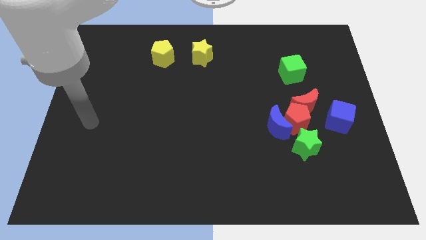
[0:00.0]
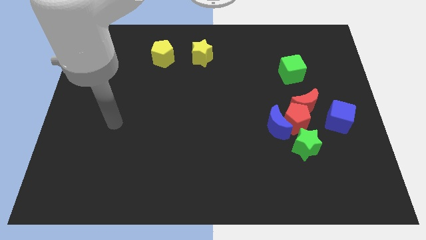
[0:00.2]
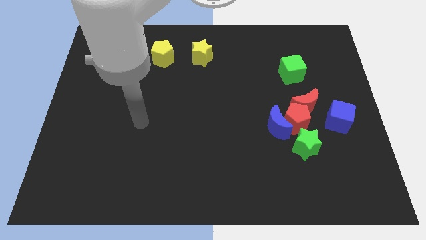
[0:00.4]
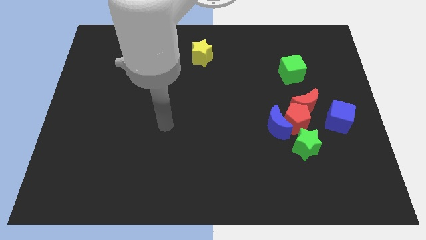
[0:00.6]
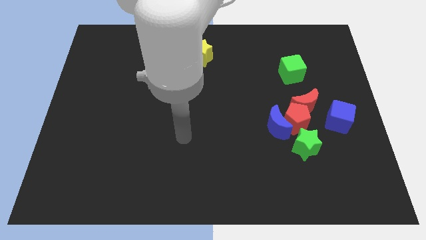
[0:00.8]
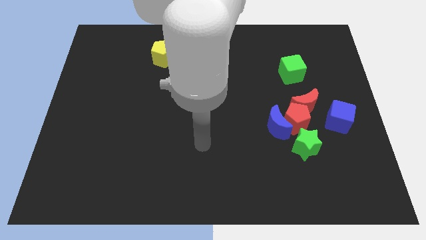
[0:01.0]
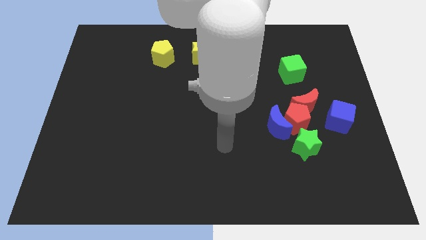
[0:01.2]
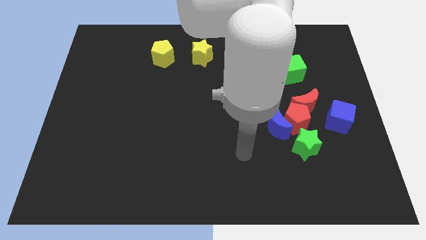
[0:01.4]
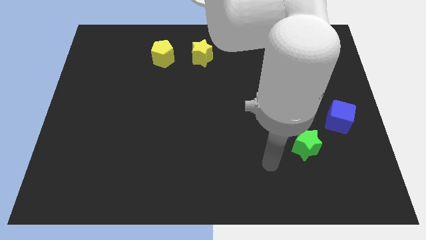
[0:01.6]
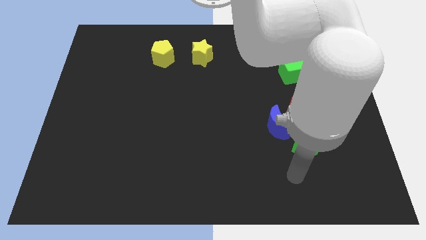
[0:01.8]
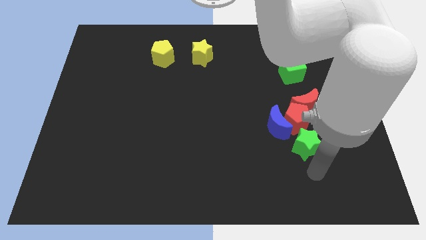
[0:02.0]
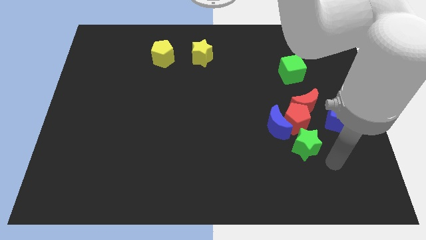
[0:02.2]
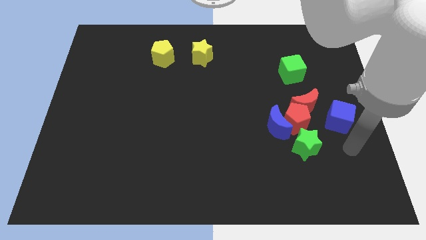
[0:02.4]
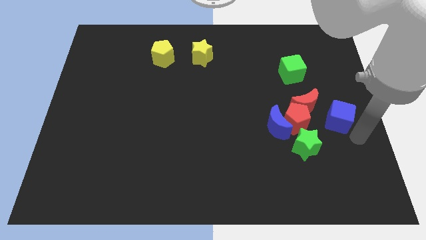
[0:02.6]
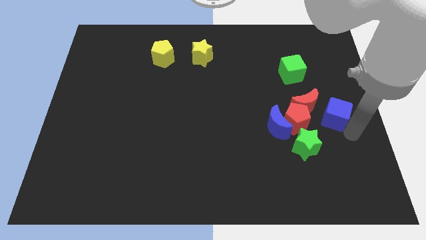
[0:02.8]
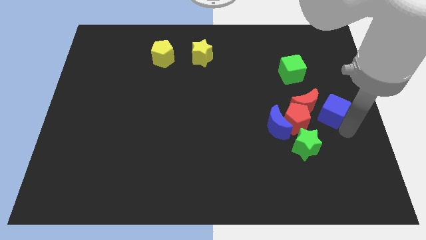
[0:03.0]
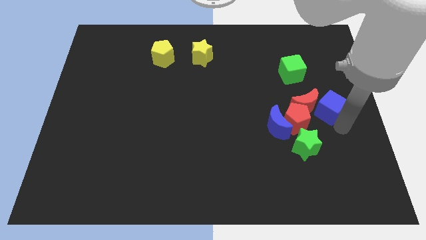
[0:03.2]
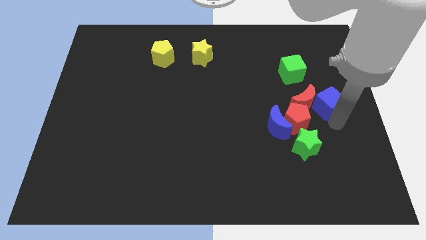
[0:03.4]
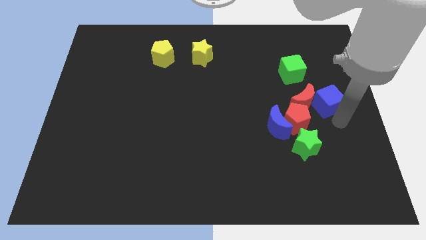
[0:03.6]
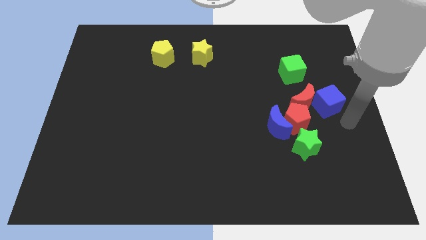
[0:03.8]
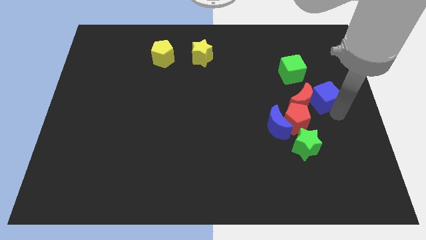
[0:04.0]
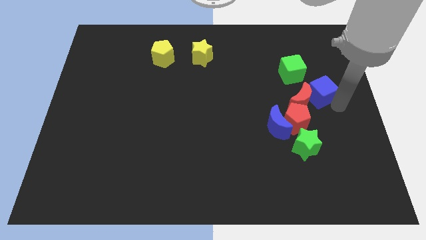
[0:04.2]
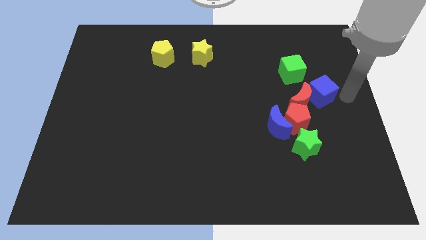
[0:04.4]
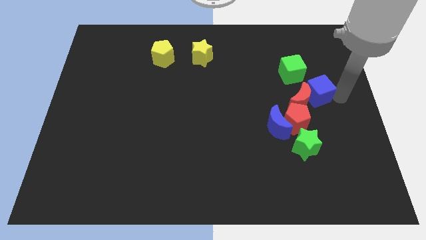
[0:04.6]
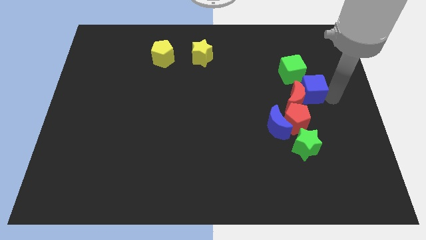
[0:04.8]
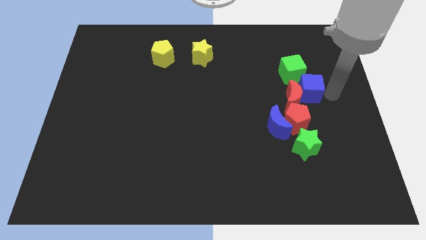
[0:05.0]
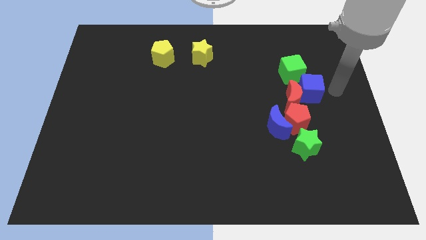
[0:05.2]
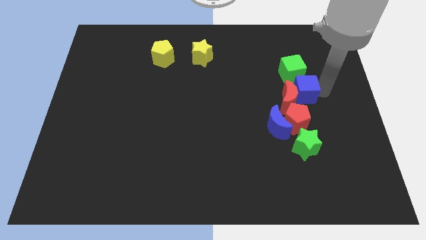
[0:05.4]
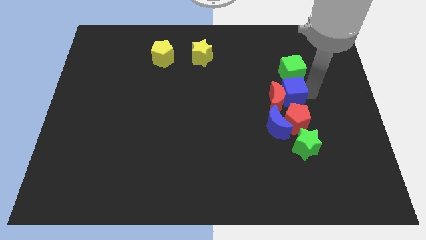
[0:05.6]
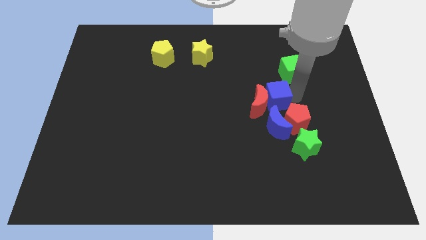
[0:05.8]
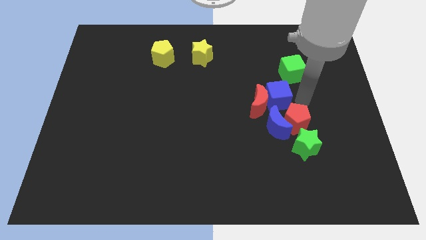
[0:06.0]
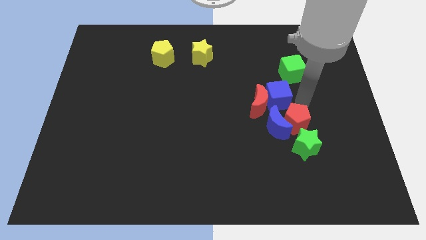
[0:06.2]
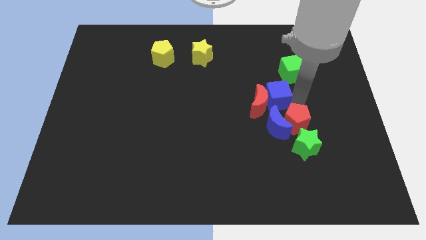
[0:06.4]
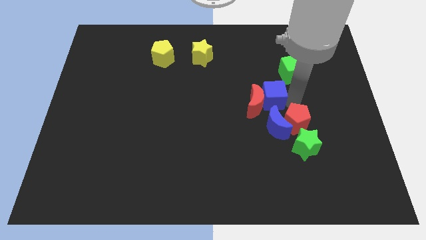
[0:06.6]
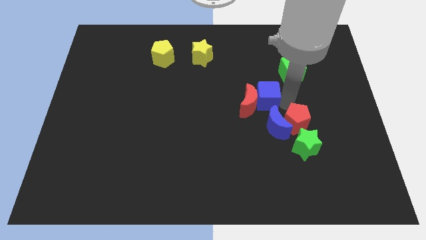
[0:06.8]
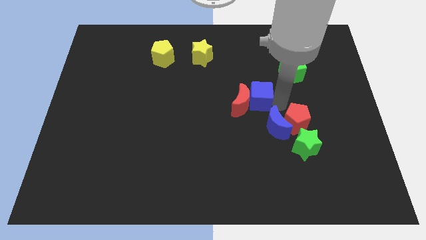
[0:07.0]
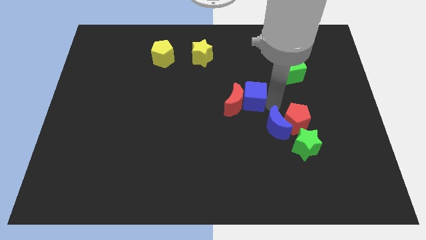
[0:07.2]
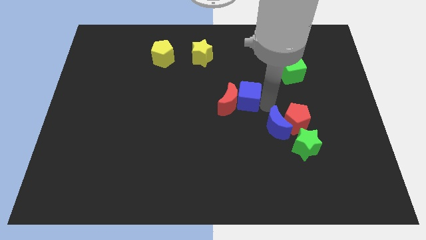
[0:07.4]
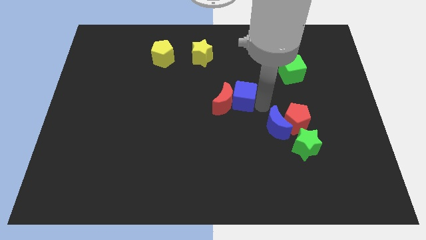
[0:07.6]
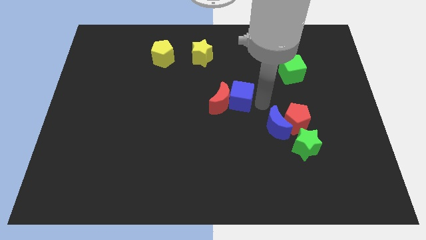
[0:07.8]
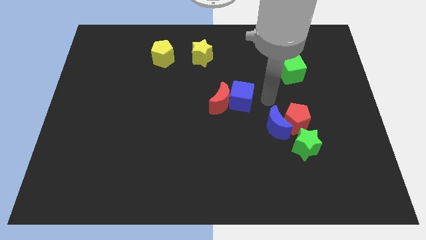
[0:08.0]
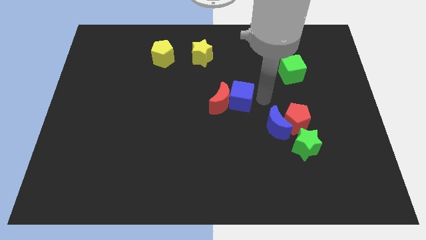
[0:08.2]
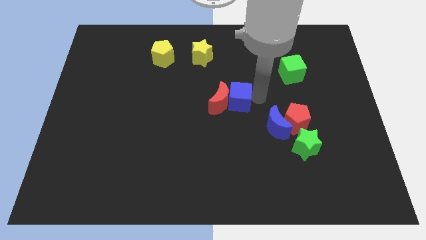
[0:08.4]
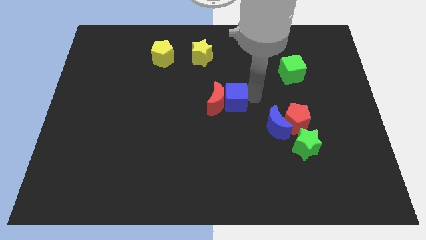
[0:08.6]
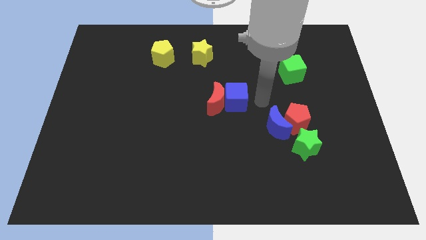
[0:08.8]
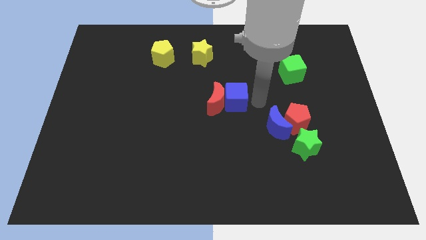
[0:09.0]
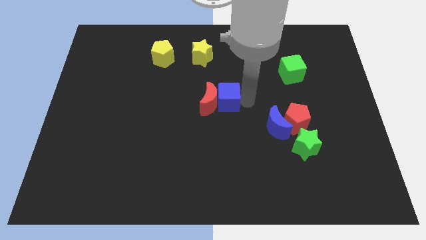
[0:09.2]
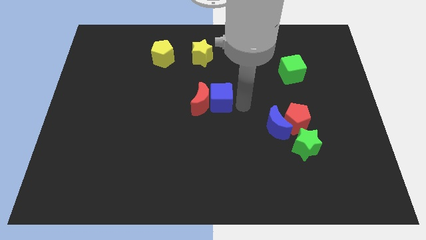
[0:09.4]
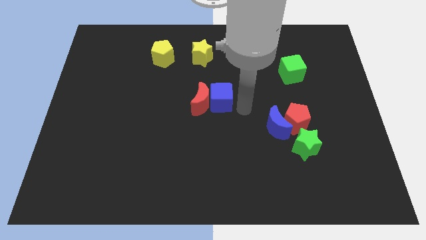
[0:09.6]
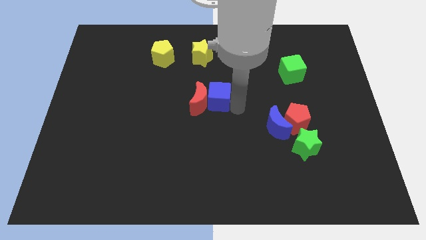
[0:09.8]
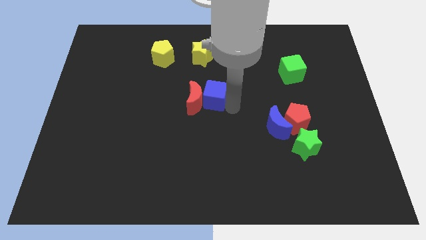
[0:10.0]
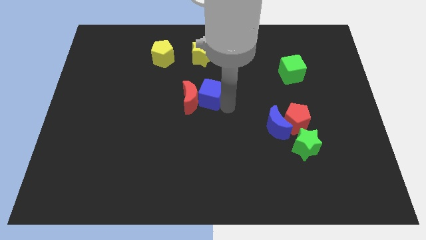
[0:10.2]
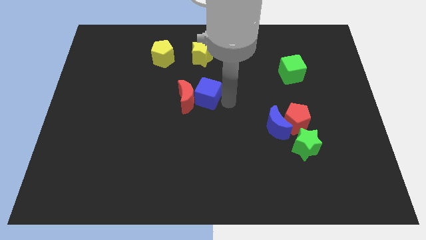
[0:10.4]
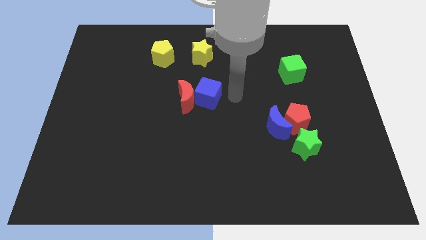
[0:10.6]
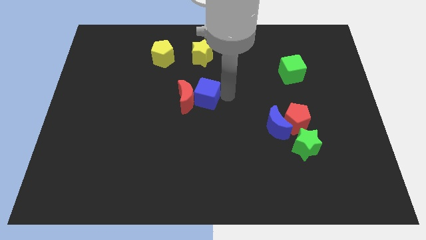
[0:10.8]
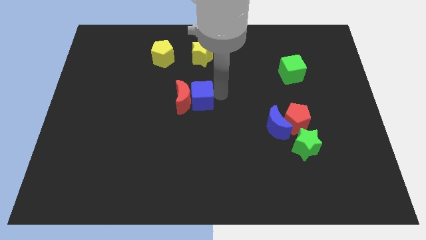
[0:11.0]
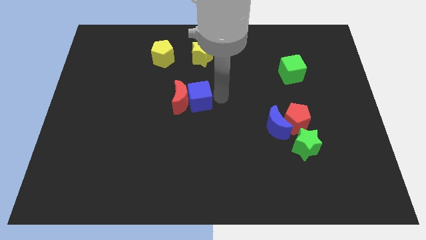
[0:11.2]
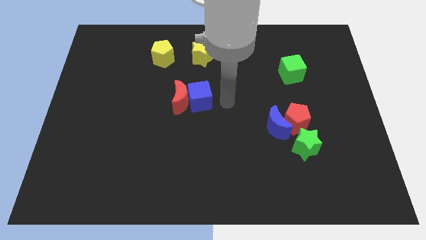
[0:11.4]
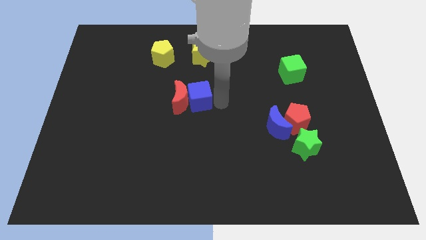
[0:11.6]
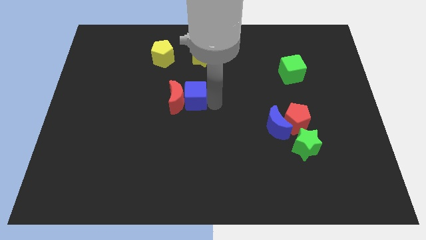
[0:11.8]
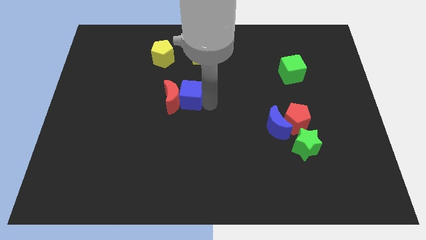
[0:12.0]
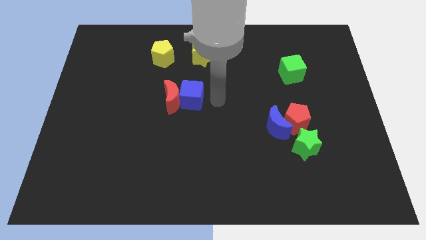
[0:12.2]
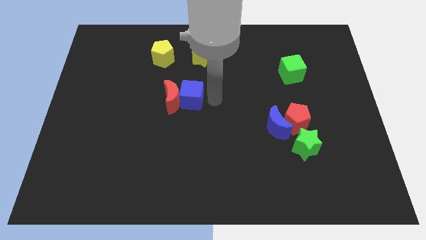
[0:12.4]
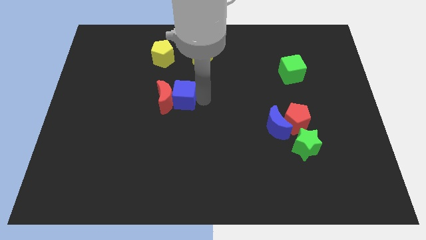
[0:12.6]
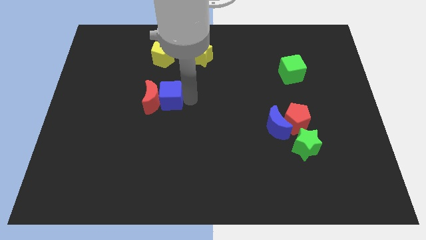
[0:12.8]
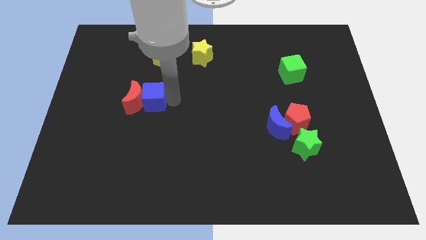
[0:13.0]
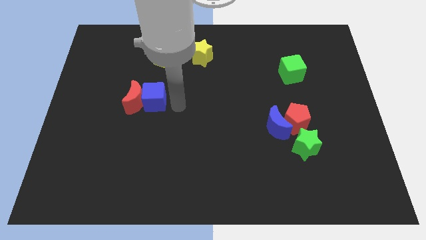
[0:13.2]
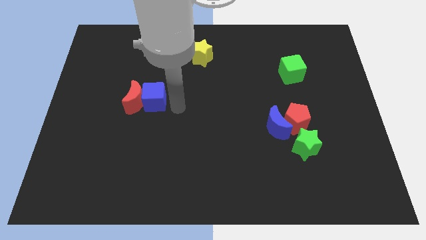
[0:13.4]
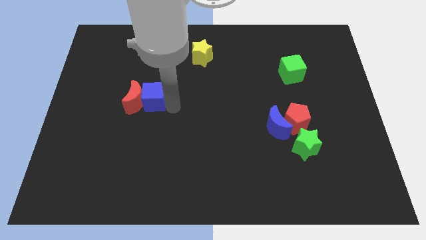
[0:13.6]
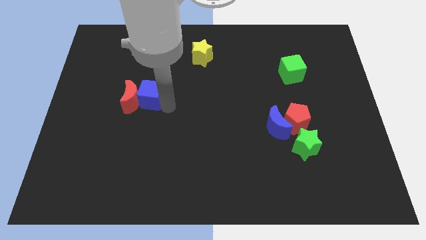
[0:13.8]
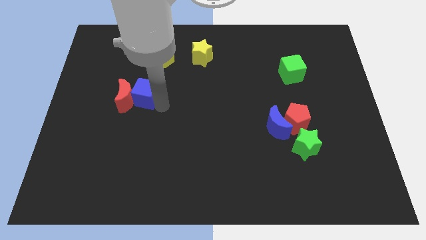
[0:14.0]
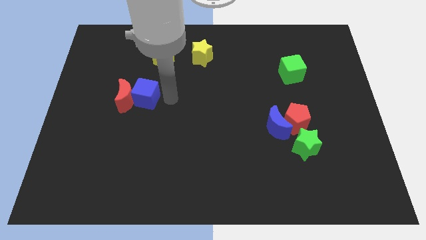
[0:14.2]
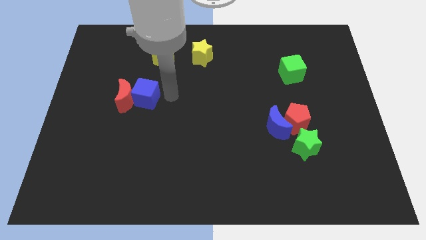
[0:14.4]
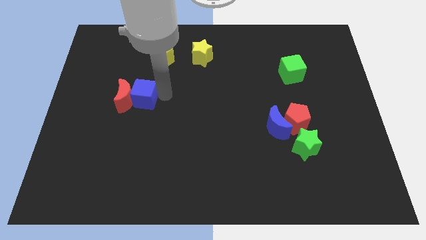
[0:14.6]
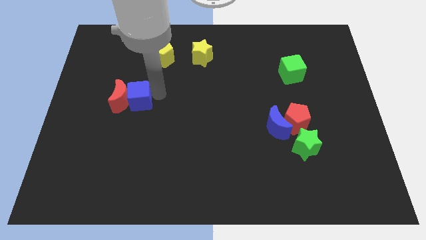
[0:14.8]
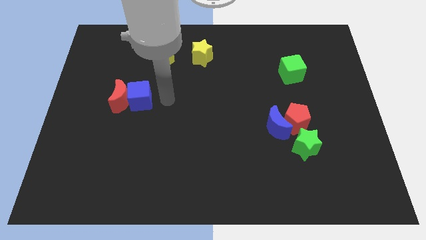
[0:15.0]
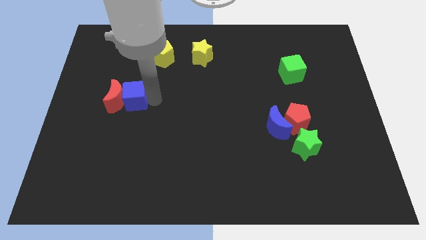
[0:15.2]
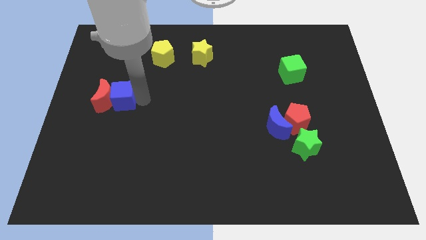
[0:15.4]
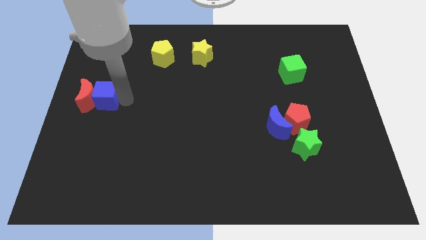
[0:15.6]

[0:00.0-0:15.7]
push the blue cube to the left side of the board
